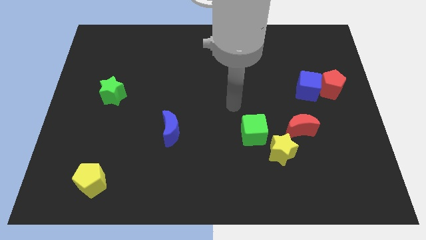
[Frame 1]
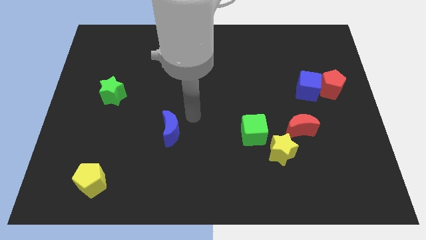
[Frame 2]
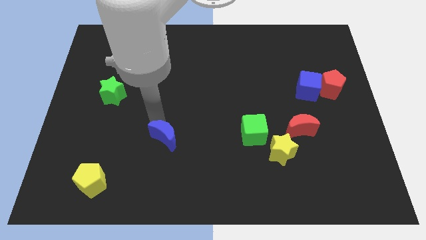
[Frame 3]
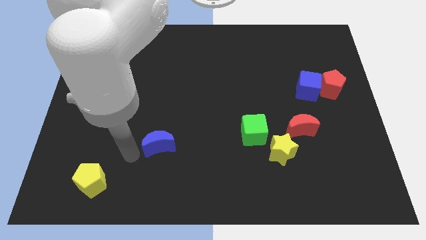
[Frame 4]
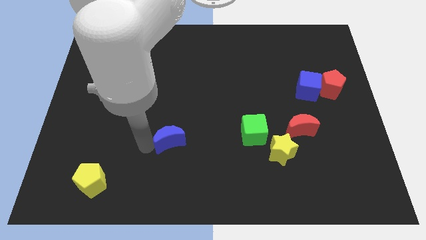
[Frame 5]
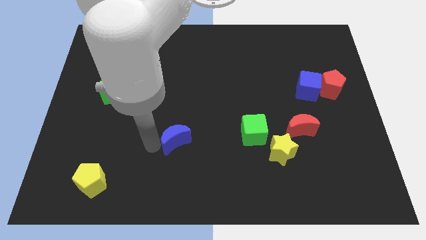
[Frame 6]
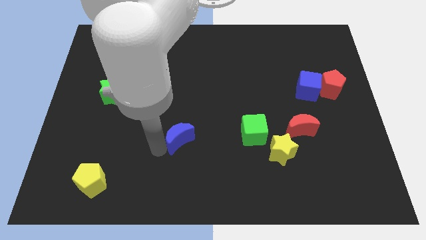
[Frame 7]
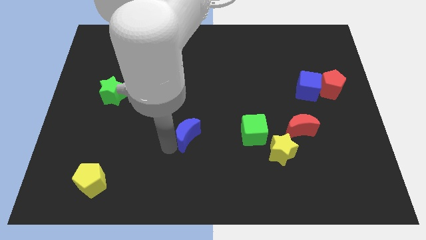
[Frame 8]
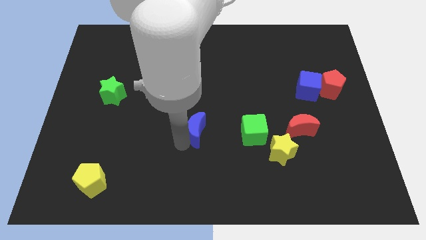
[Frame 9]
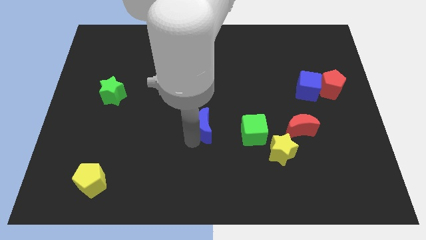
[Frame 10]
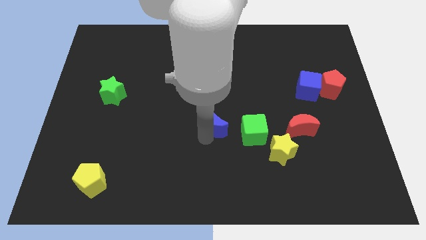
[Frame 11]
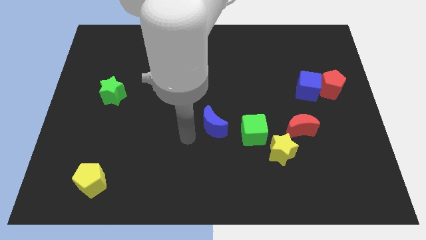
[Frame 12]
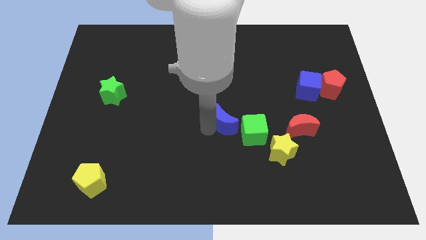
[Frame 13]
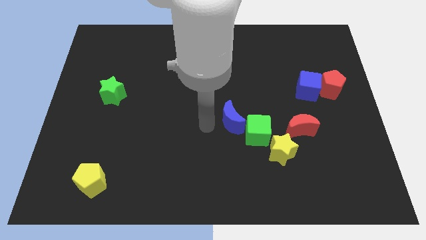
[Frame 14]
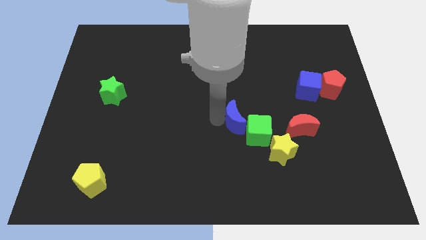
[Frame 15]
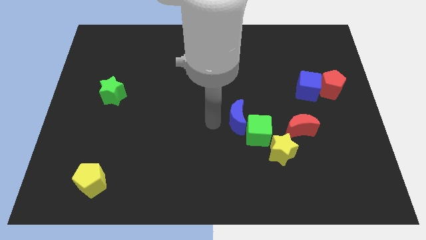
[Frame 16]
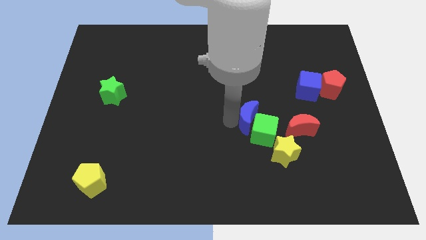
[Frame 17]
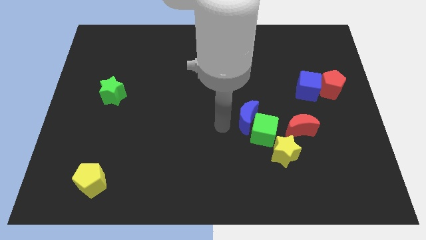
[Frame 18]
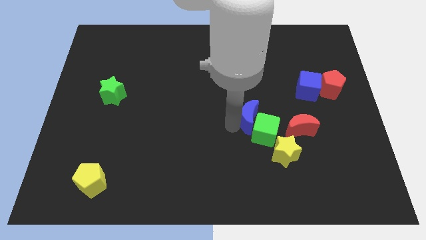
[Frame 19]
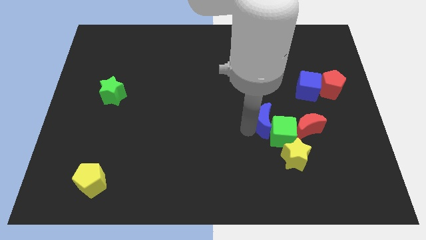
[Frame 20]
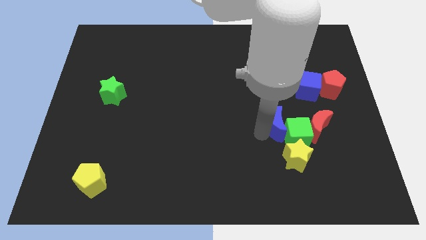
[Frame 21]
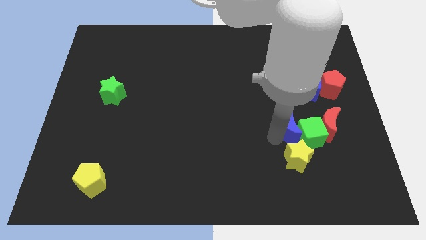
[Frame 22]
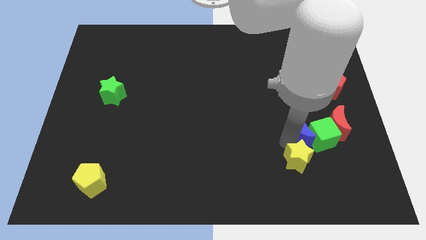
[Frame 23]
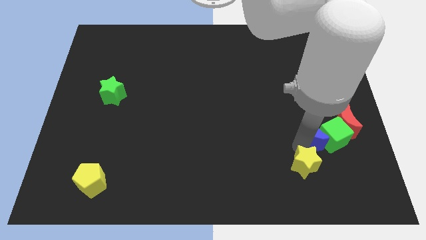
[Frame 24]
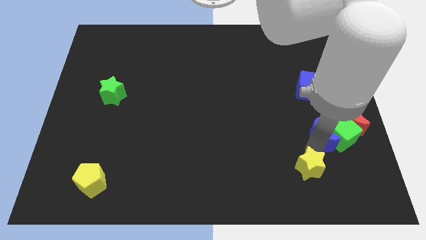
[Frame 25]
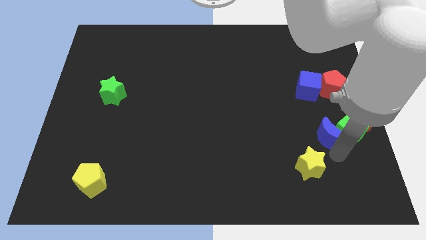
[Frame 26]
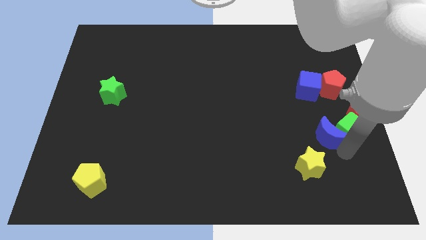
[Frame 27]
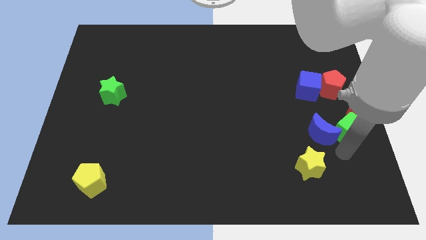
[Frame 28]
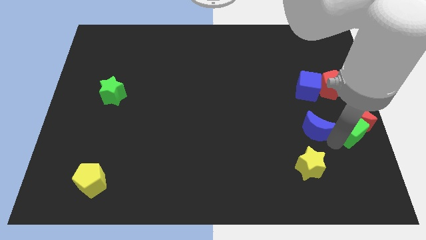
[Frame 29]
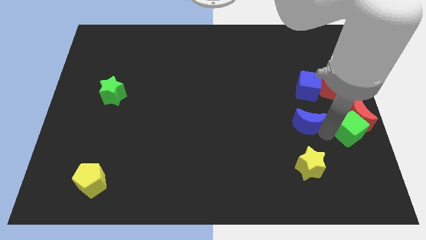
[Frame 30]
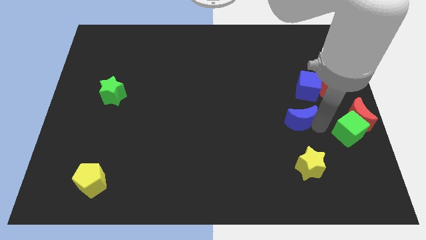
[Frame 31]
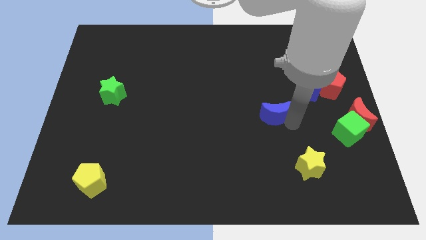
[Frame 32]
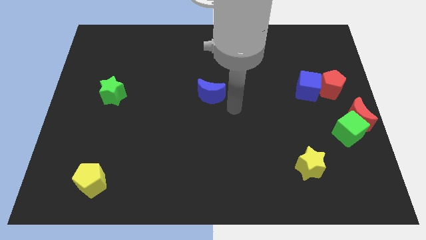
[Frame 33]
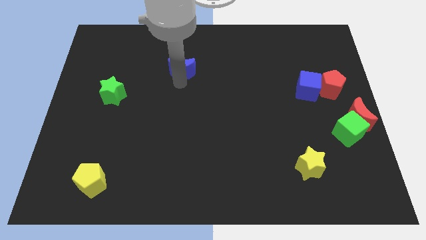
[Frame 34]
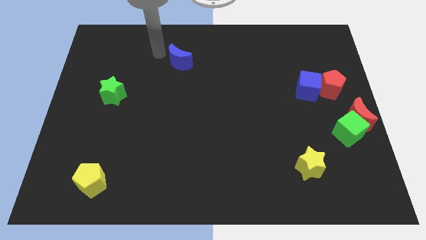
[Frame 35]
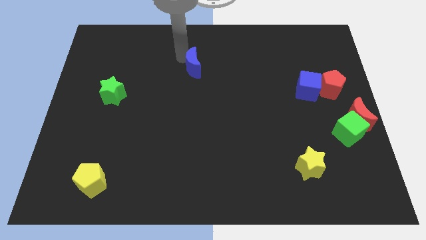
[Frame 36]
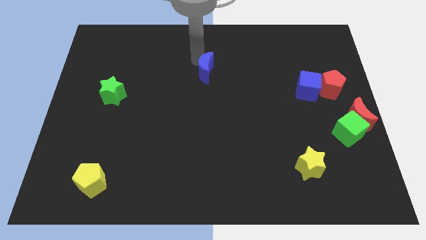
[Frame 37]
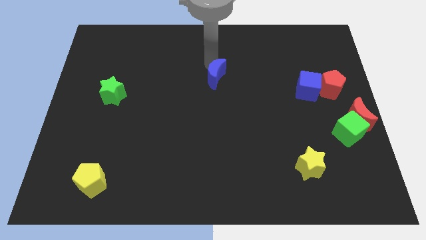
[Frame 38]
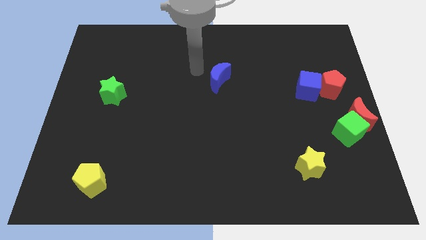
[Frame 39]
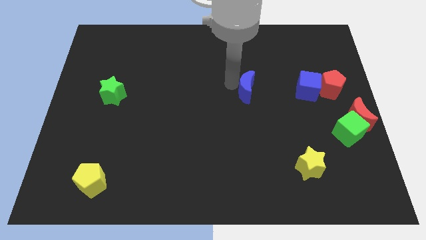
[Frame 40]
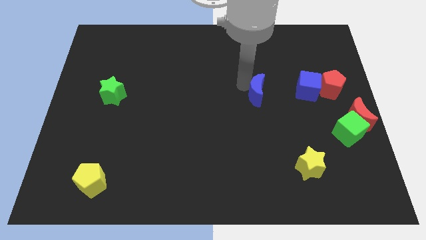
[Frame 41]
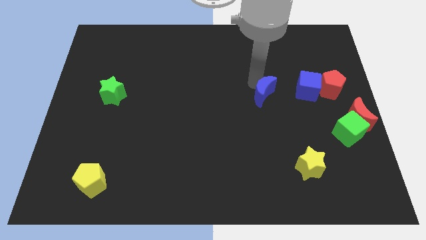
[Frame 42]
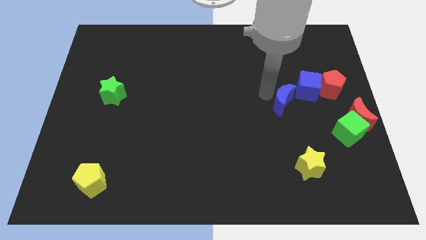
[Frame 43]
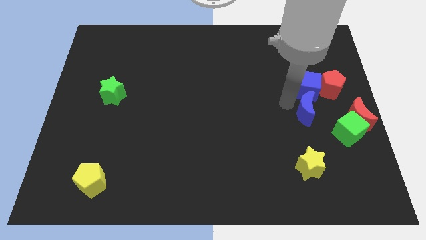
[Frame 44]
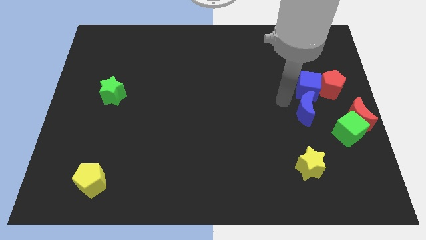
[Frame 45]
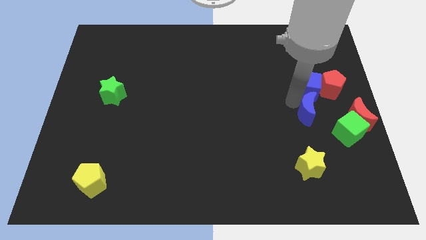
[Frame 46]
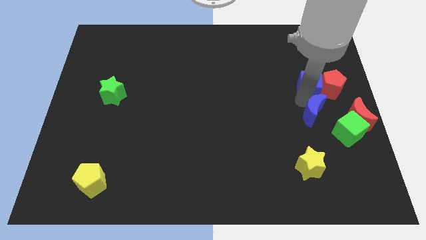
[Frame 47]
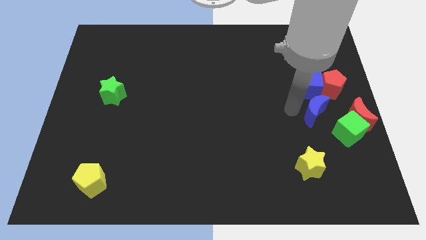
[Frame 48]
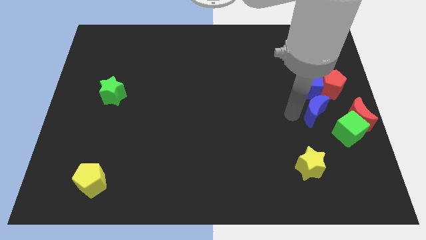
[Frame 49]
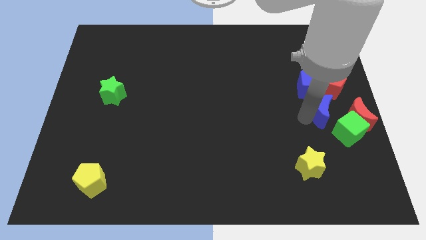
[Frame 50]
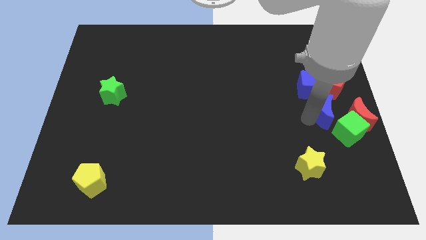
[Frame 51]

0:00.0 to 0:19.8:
move the blue moon to the right side of the board

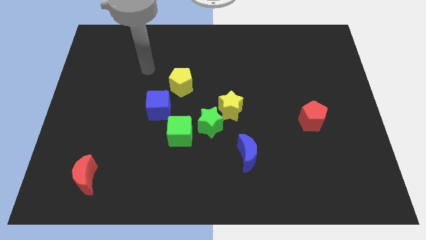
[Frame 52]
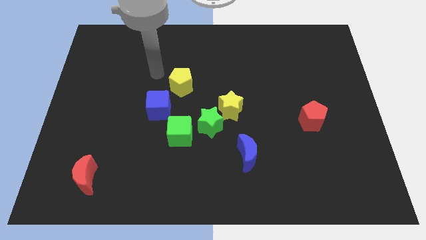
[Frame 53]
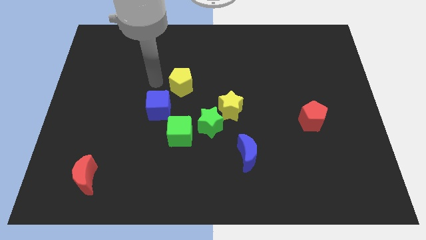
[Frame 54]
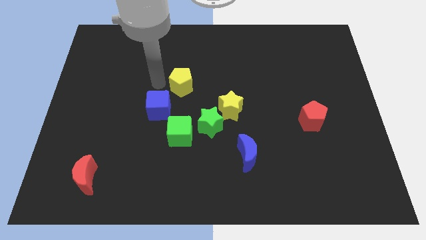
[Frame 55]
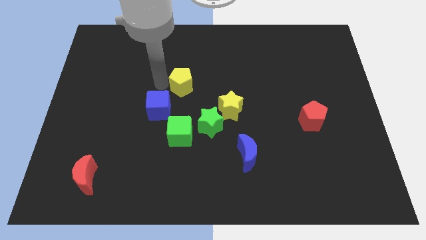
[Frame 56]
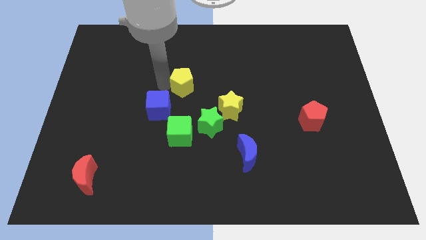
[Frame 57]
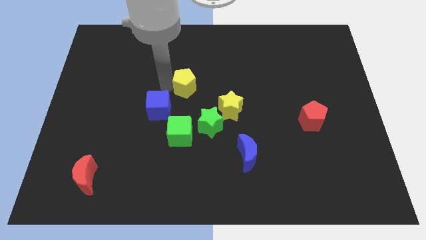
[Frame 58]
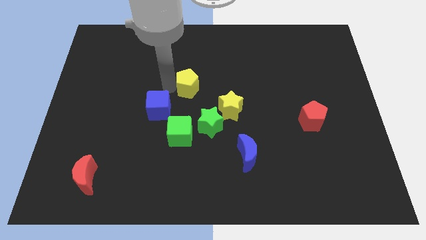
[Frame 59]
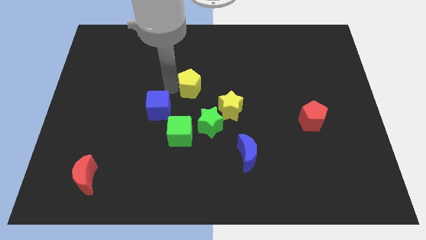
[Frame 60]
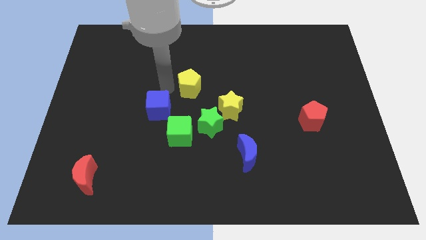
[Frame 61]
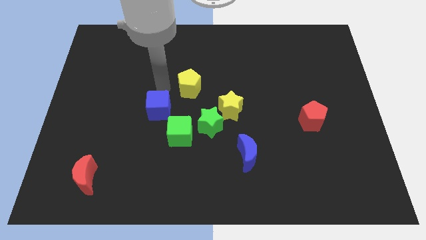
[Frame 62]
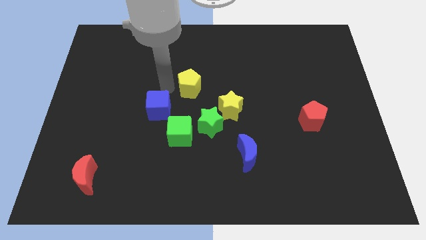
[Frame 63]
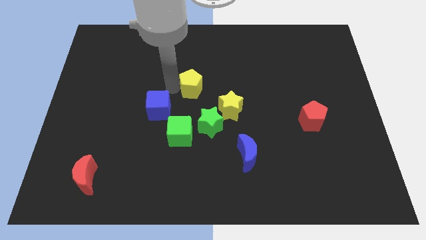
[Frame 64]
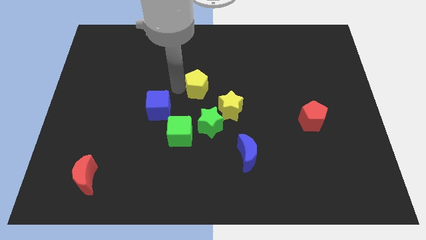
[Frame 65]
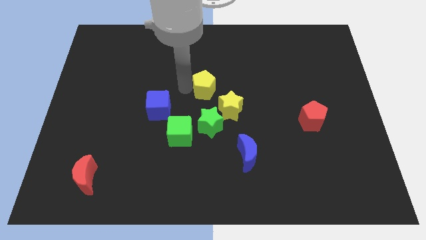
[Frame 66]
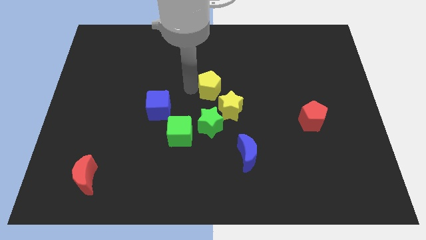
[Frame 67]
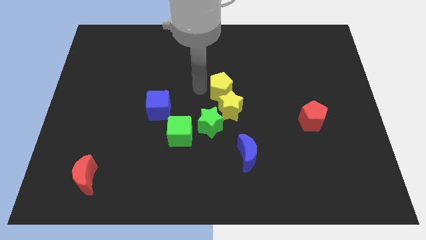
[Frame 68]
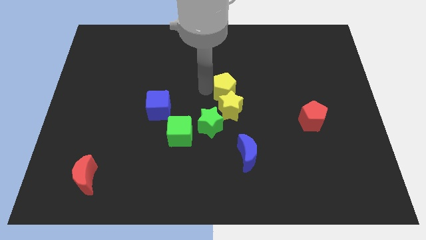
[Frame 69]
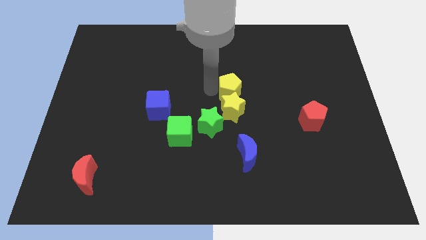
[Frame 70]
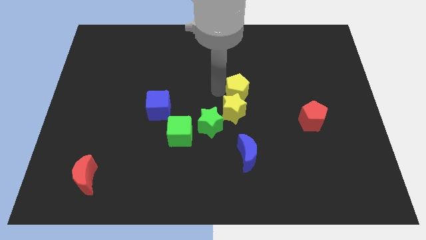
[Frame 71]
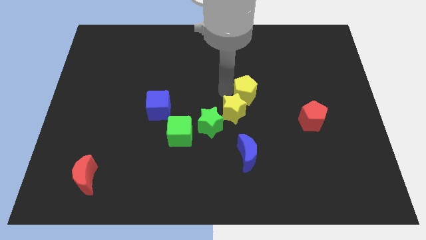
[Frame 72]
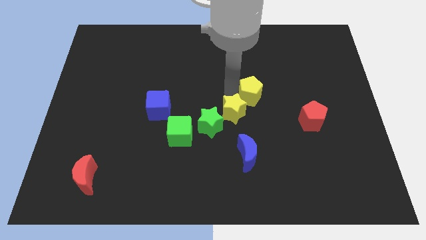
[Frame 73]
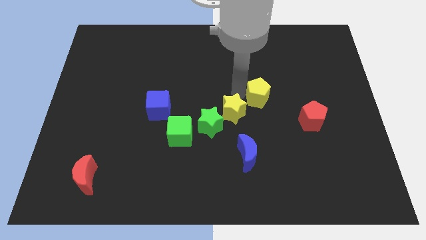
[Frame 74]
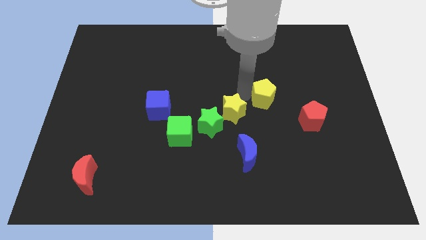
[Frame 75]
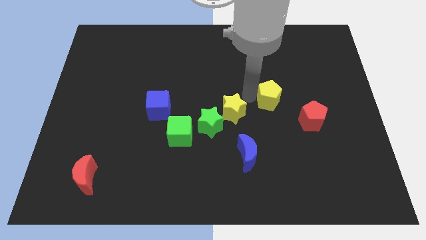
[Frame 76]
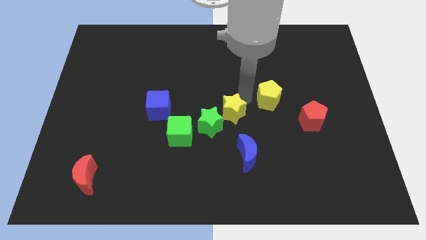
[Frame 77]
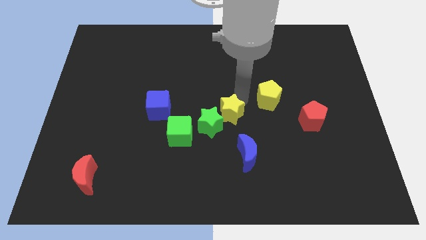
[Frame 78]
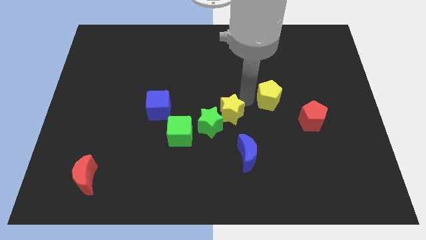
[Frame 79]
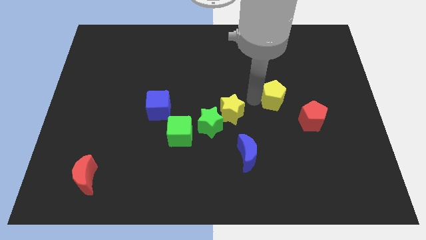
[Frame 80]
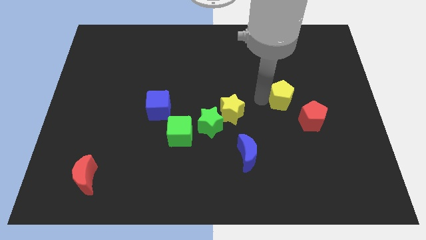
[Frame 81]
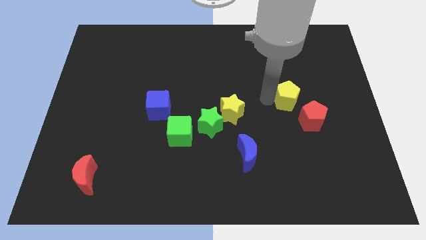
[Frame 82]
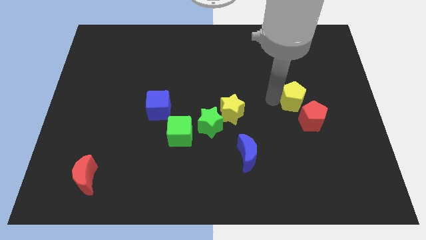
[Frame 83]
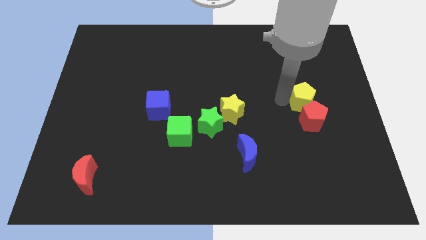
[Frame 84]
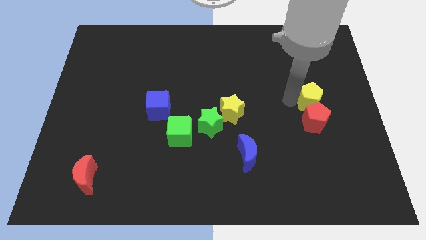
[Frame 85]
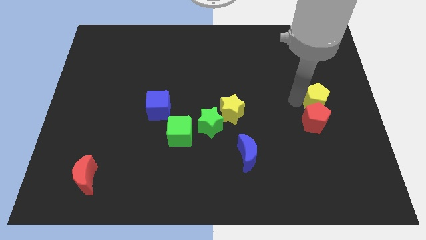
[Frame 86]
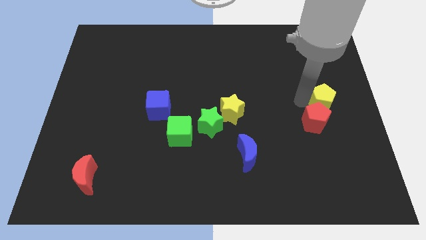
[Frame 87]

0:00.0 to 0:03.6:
slide the yellow pentagon to the center right
